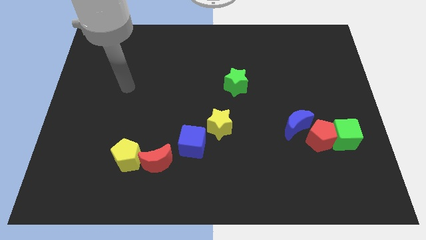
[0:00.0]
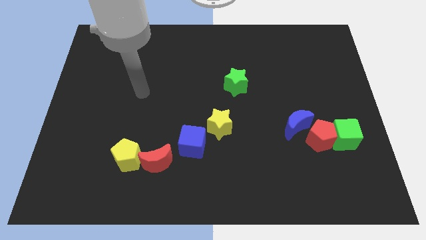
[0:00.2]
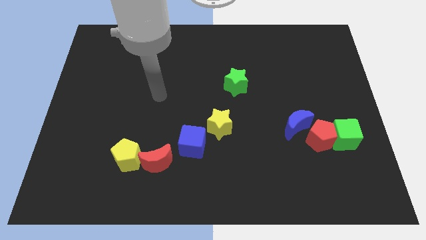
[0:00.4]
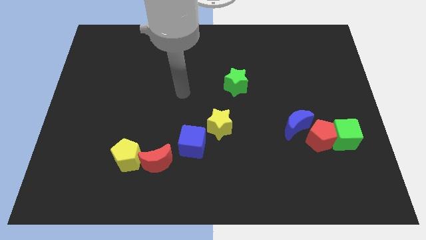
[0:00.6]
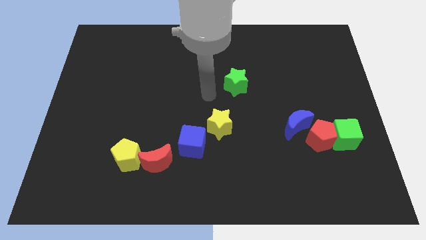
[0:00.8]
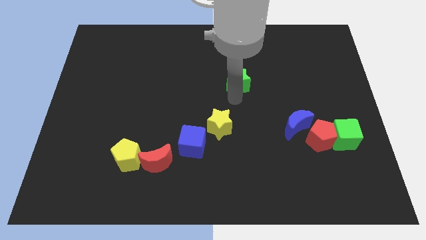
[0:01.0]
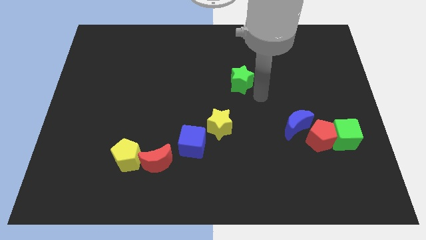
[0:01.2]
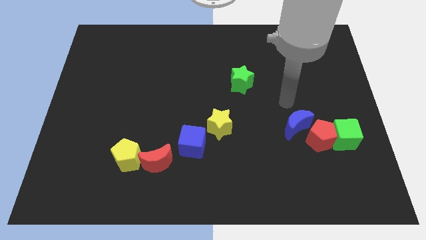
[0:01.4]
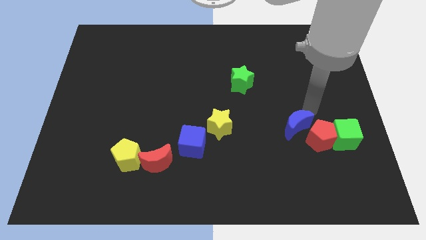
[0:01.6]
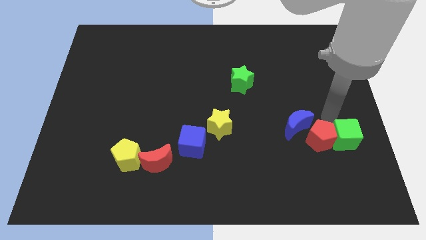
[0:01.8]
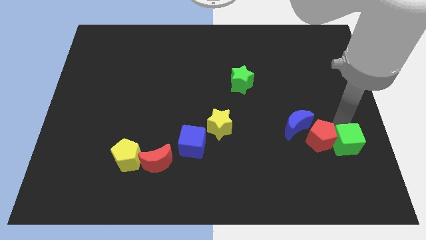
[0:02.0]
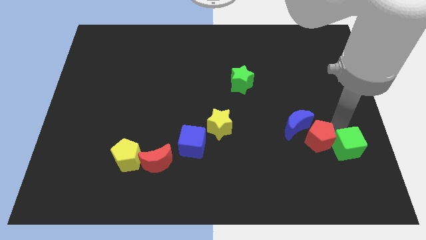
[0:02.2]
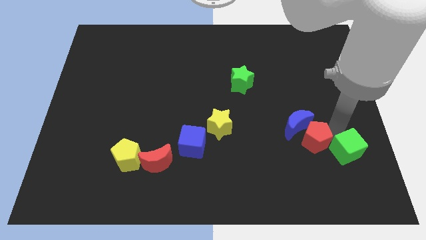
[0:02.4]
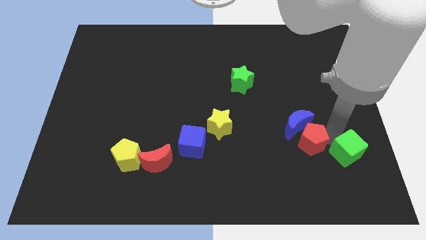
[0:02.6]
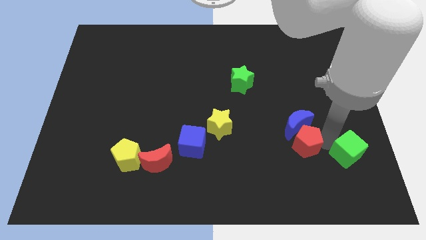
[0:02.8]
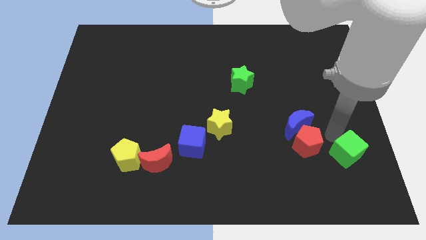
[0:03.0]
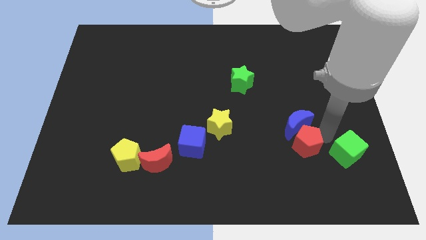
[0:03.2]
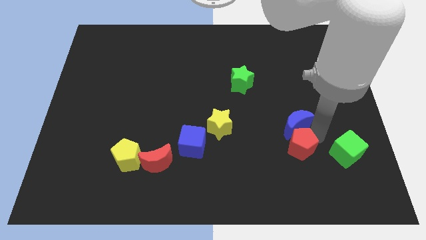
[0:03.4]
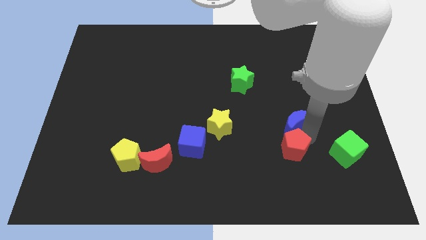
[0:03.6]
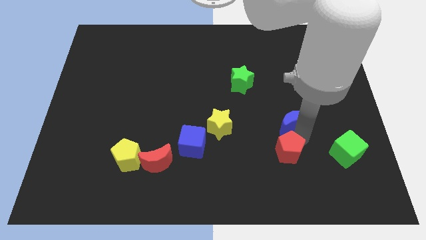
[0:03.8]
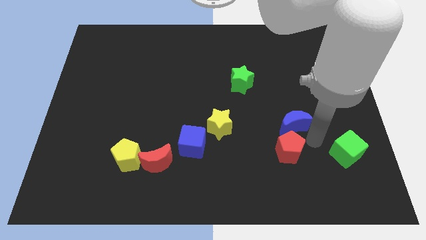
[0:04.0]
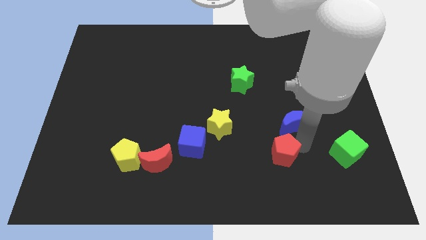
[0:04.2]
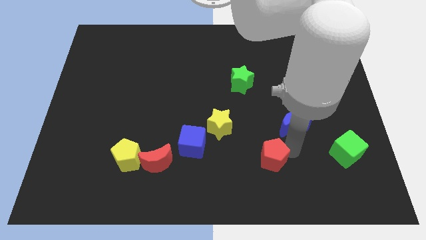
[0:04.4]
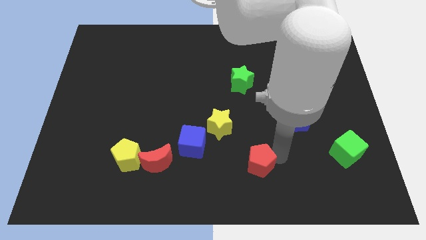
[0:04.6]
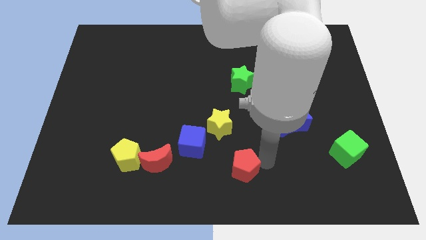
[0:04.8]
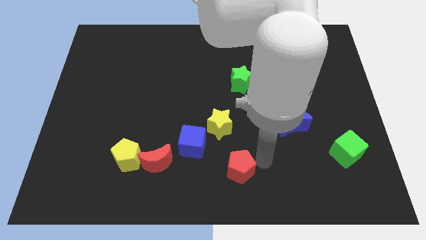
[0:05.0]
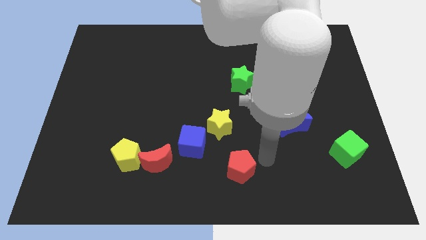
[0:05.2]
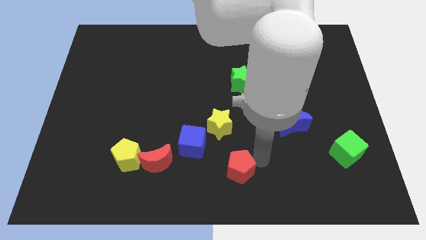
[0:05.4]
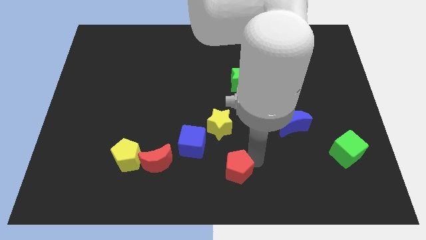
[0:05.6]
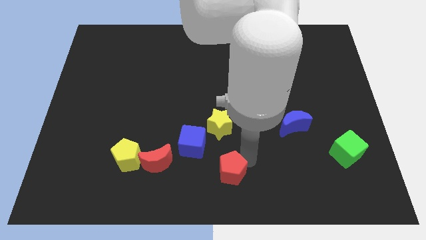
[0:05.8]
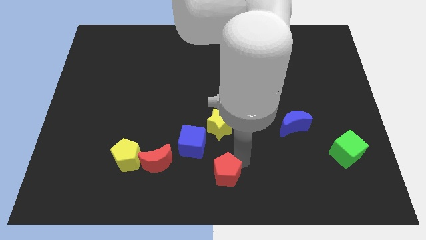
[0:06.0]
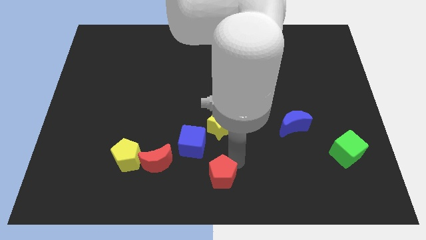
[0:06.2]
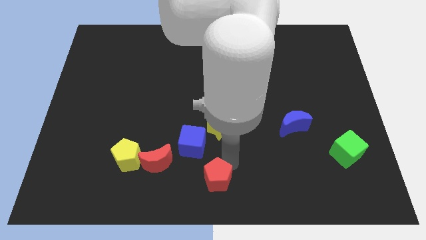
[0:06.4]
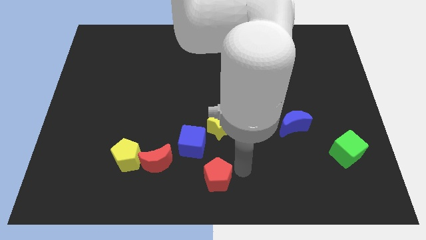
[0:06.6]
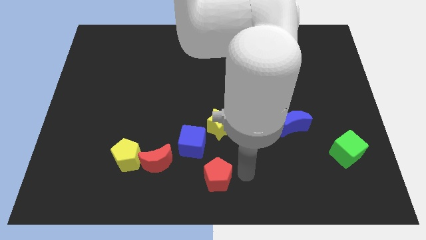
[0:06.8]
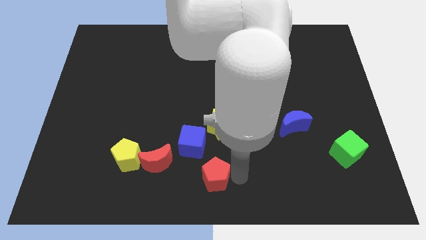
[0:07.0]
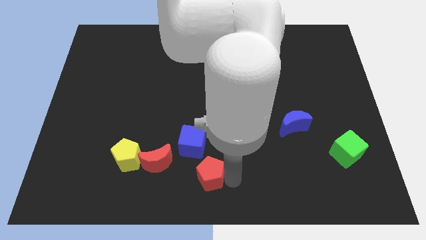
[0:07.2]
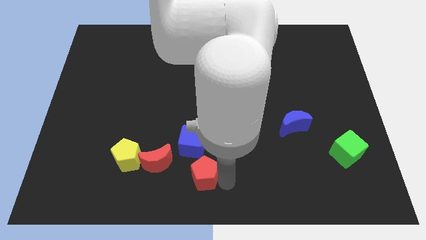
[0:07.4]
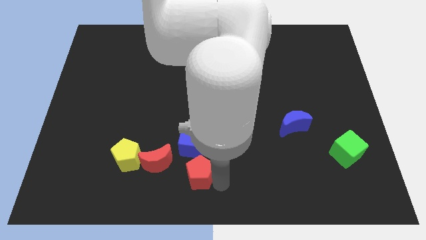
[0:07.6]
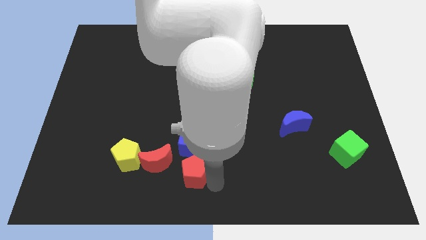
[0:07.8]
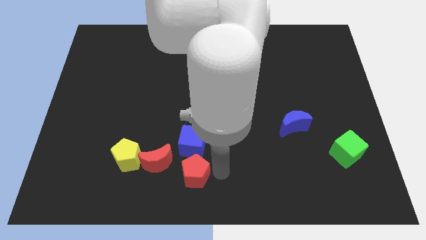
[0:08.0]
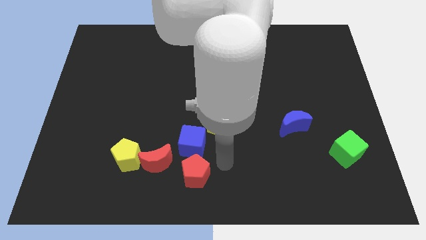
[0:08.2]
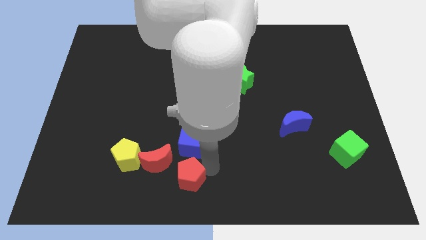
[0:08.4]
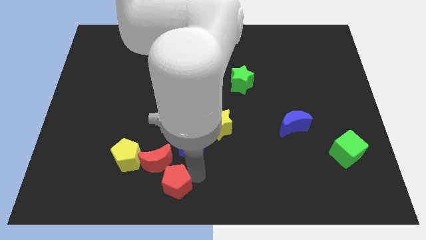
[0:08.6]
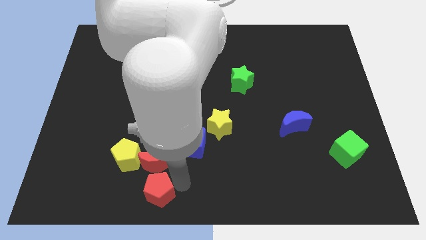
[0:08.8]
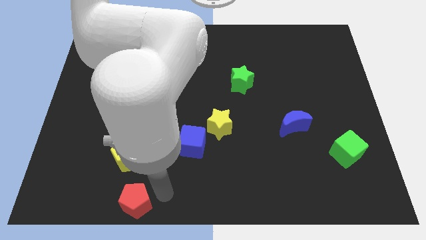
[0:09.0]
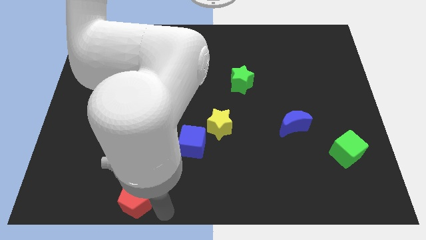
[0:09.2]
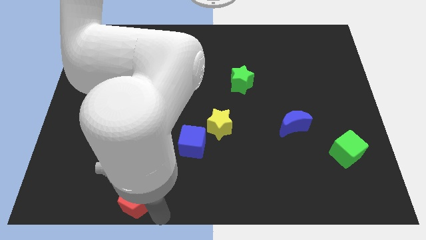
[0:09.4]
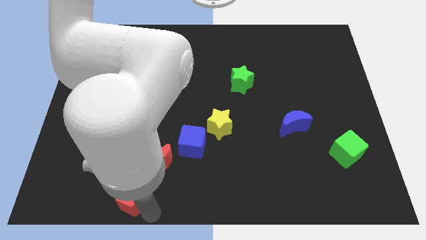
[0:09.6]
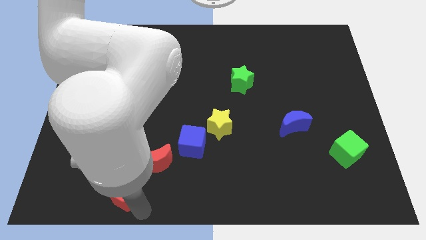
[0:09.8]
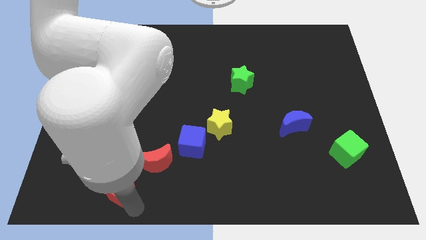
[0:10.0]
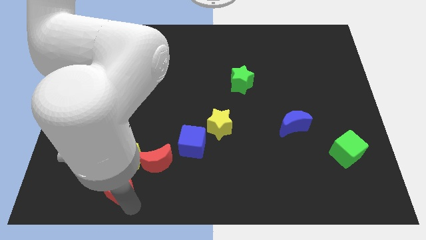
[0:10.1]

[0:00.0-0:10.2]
put the red pentagon to the bottom left of the yellow pentagon

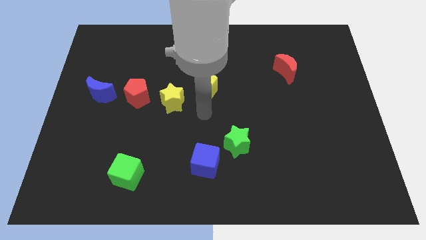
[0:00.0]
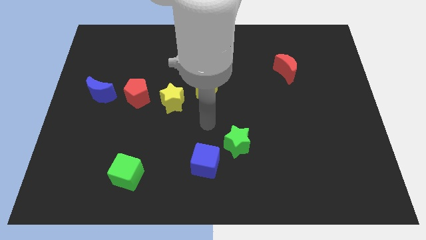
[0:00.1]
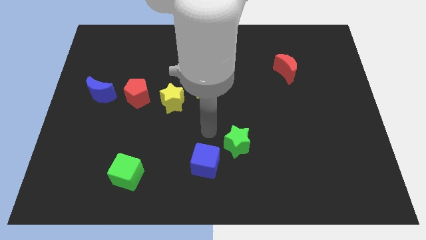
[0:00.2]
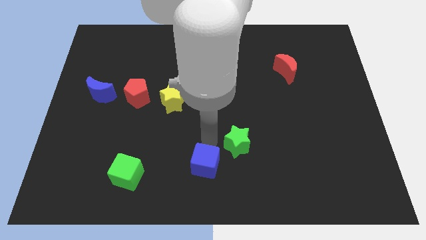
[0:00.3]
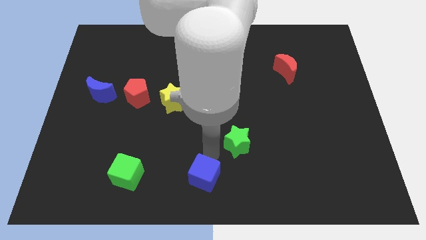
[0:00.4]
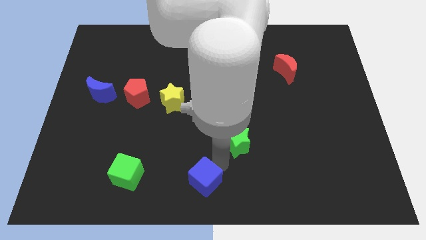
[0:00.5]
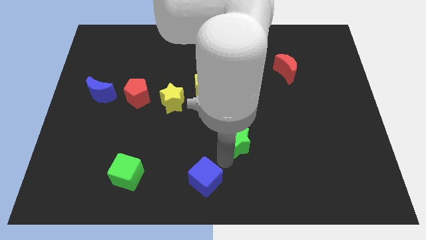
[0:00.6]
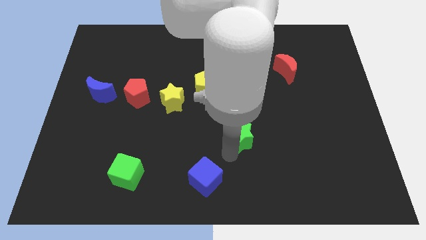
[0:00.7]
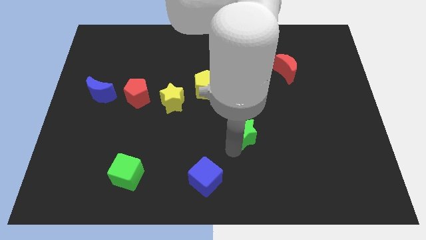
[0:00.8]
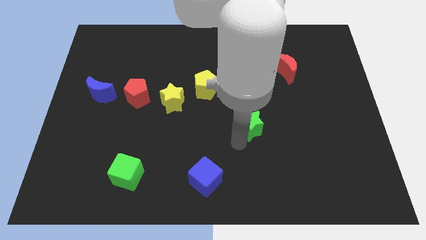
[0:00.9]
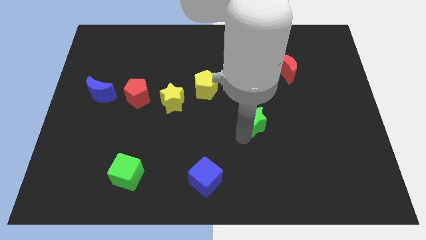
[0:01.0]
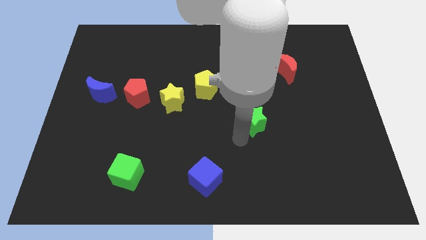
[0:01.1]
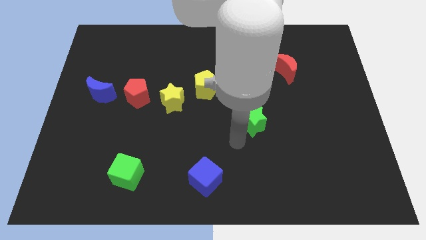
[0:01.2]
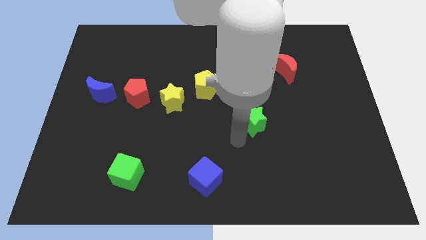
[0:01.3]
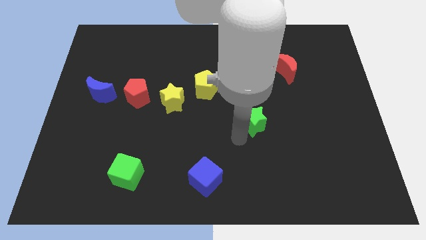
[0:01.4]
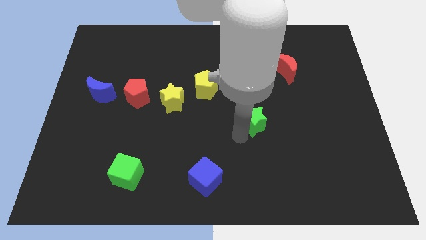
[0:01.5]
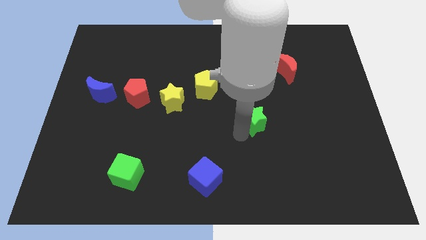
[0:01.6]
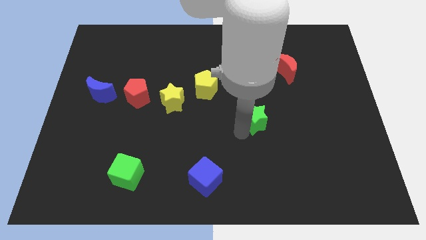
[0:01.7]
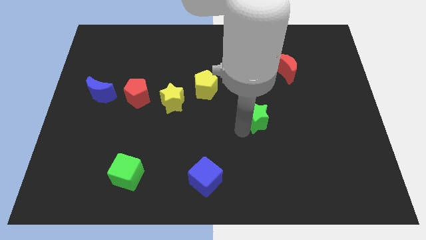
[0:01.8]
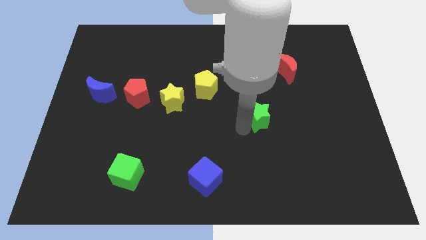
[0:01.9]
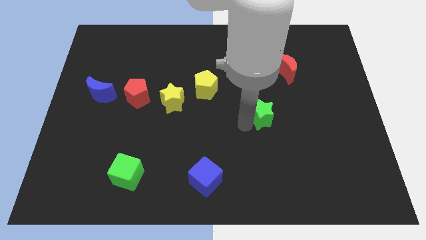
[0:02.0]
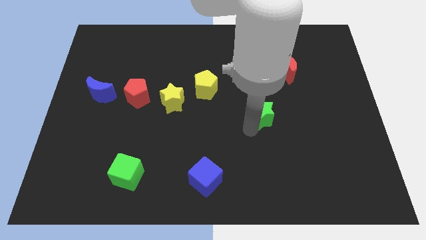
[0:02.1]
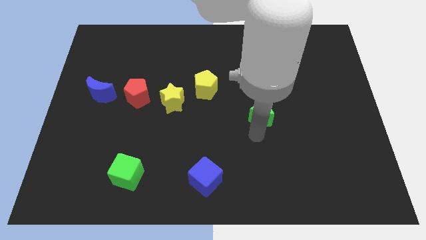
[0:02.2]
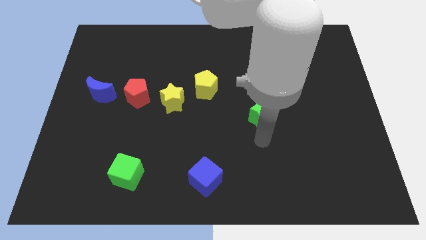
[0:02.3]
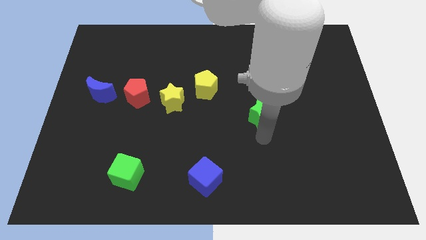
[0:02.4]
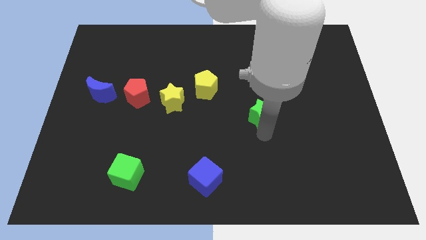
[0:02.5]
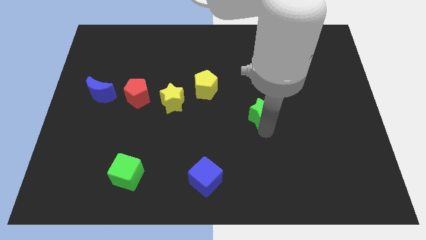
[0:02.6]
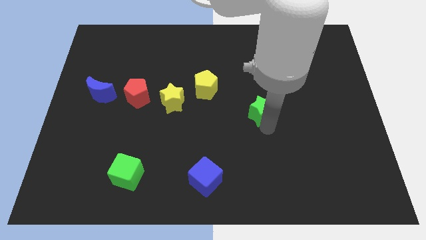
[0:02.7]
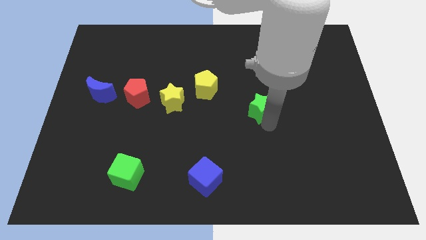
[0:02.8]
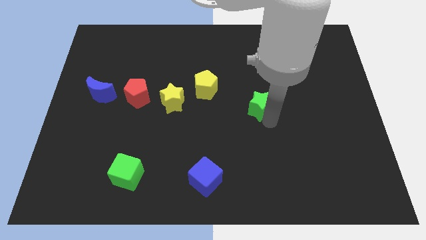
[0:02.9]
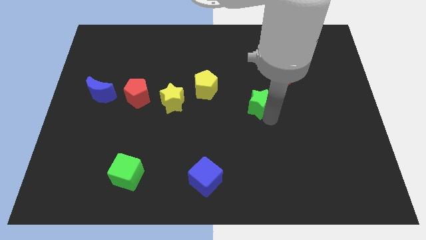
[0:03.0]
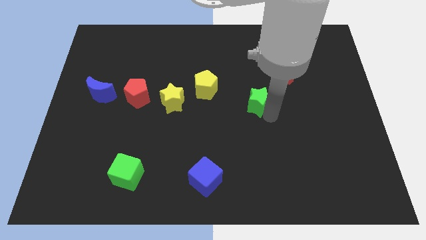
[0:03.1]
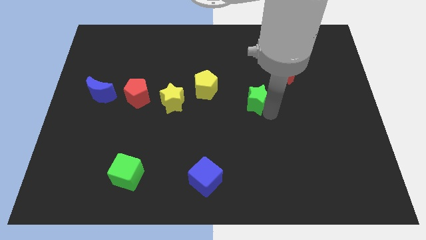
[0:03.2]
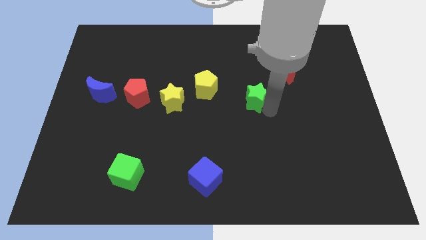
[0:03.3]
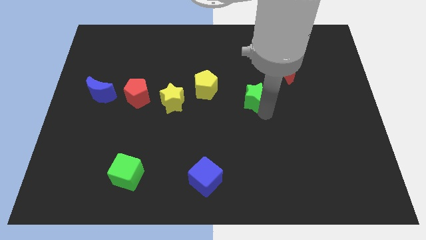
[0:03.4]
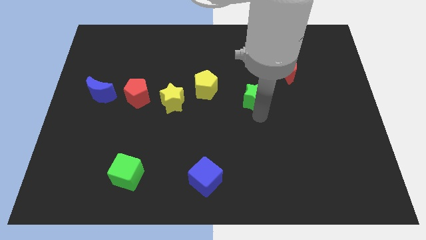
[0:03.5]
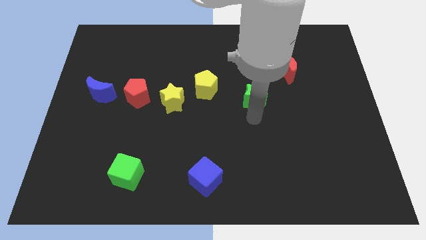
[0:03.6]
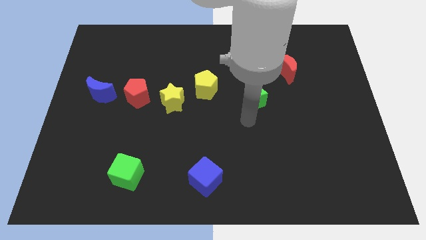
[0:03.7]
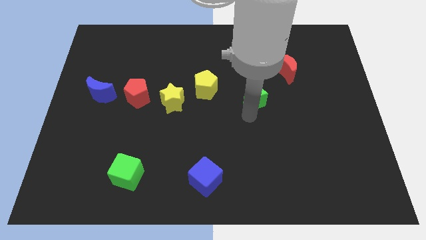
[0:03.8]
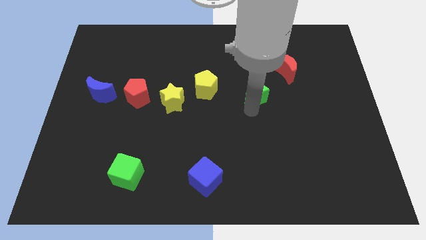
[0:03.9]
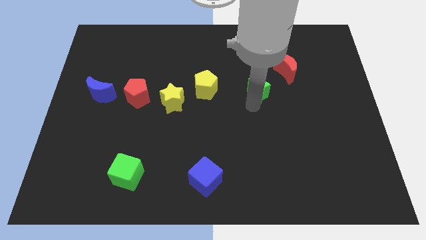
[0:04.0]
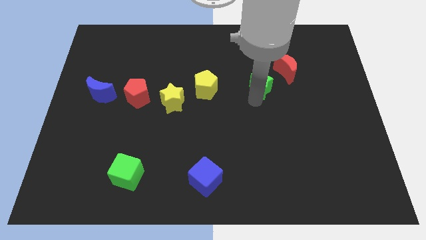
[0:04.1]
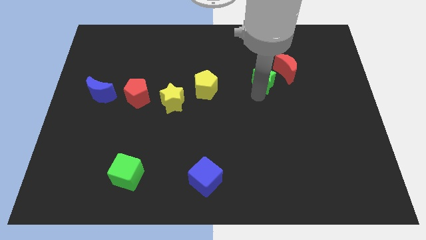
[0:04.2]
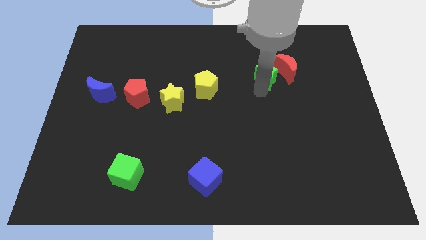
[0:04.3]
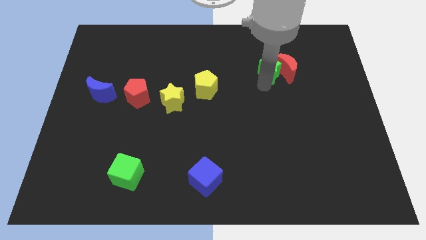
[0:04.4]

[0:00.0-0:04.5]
put the green star to the top left of the red moon
